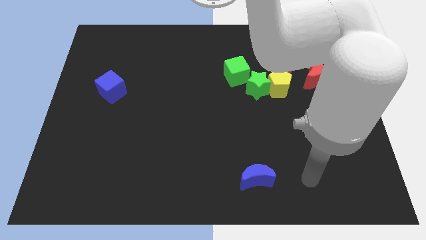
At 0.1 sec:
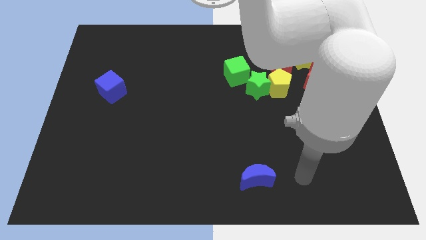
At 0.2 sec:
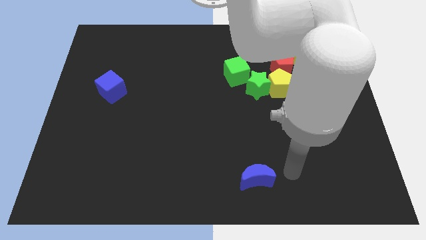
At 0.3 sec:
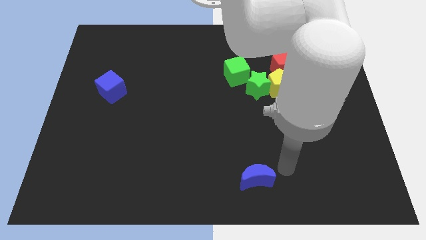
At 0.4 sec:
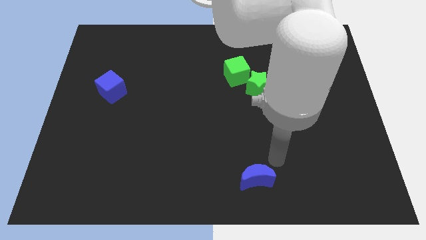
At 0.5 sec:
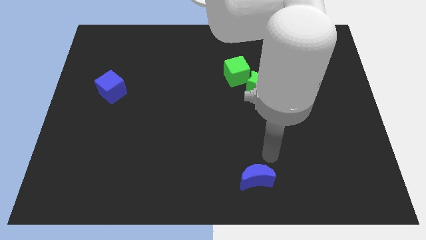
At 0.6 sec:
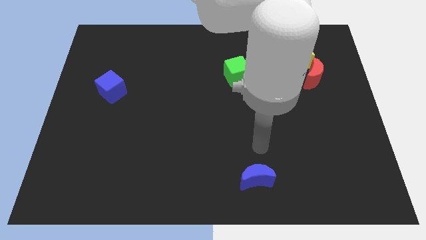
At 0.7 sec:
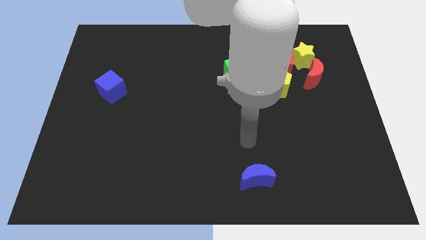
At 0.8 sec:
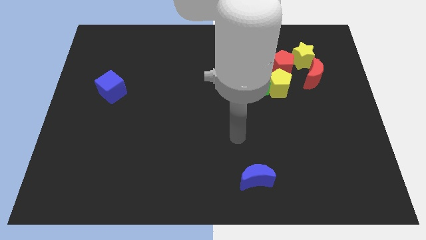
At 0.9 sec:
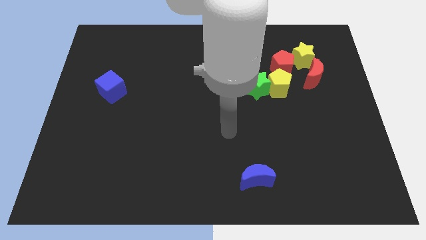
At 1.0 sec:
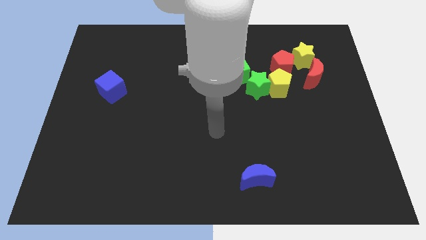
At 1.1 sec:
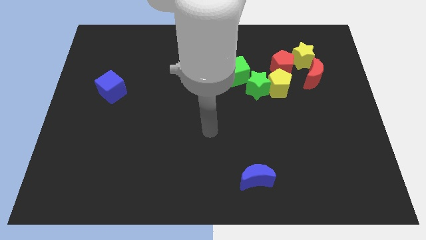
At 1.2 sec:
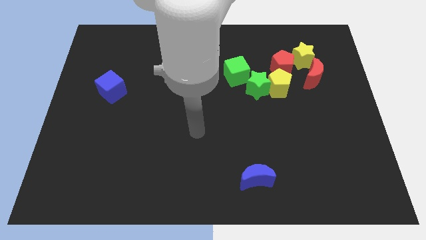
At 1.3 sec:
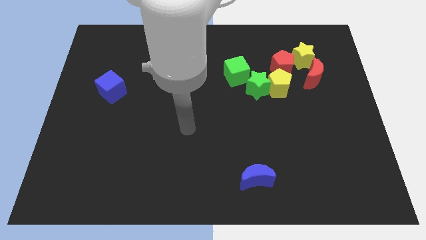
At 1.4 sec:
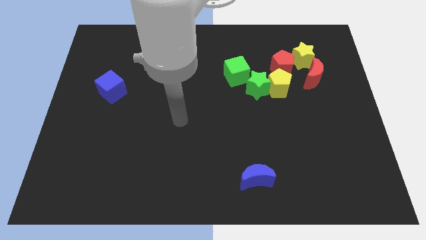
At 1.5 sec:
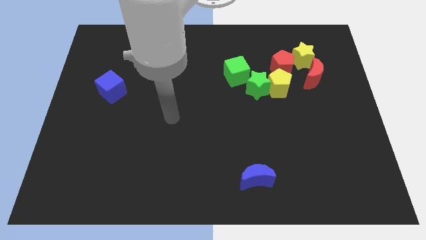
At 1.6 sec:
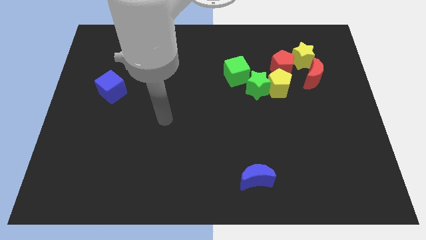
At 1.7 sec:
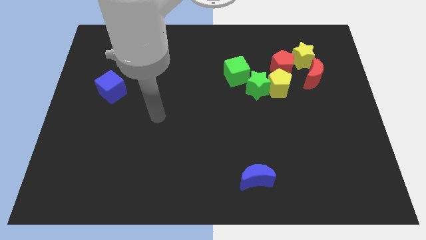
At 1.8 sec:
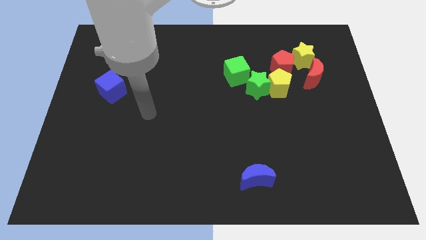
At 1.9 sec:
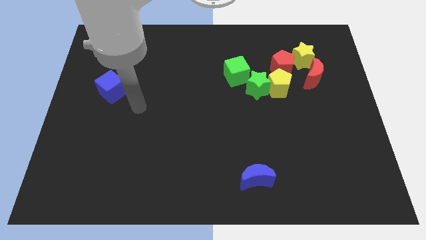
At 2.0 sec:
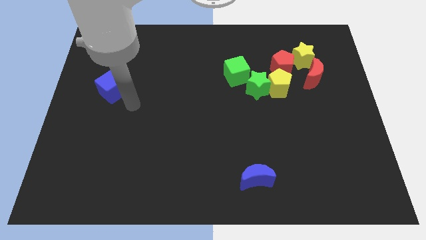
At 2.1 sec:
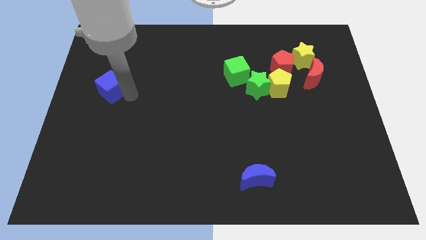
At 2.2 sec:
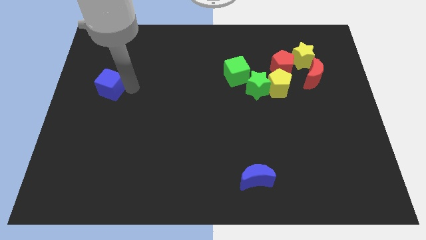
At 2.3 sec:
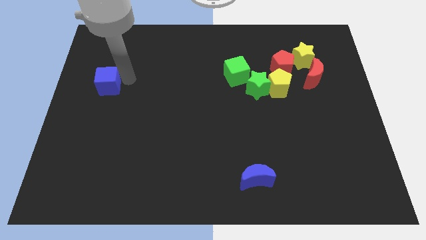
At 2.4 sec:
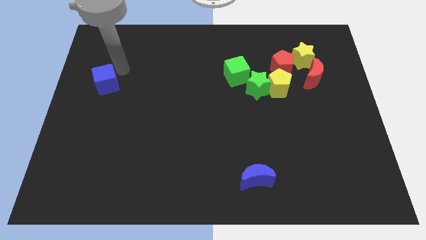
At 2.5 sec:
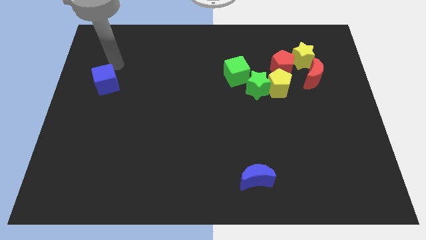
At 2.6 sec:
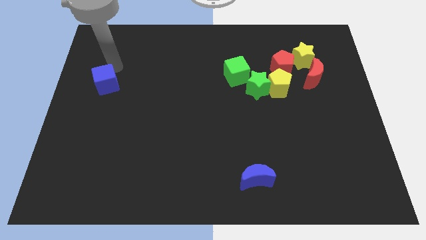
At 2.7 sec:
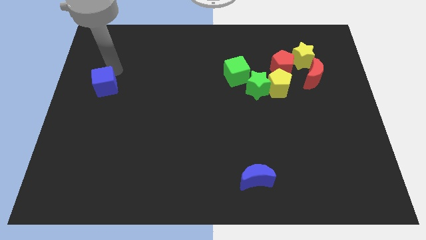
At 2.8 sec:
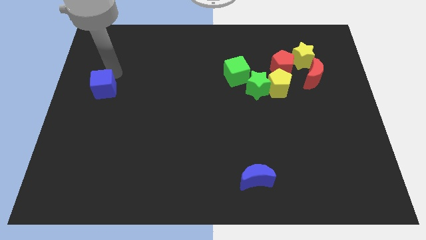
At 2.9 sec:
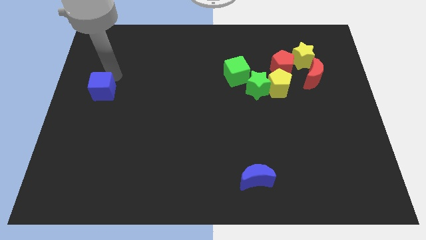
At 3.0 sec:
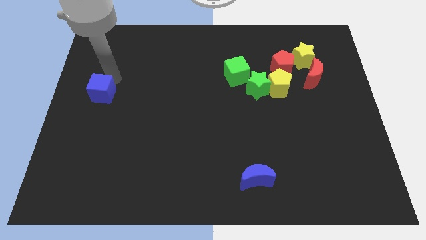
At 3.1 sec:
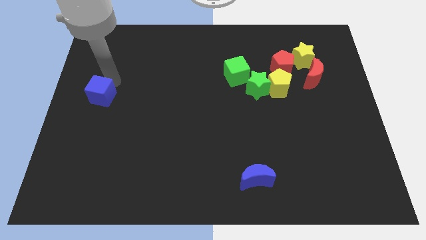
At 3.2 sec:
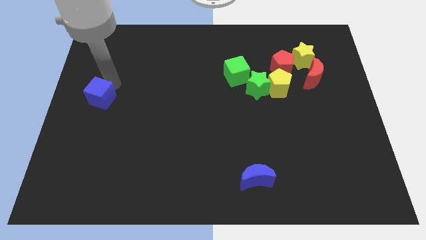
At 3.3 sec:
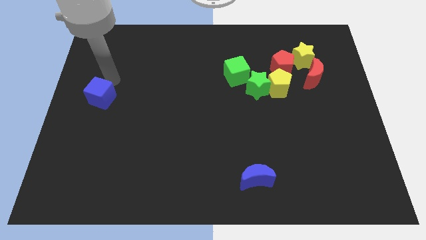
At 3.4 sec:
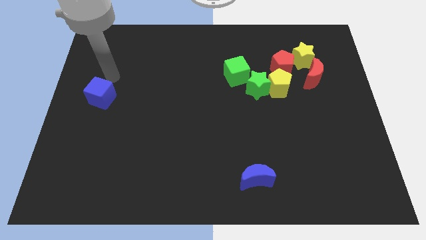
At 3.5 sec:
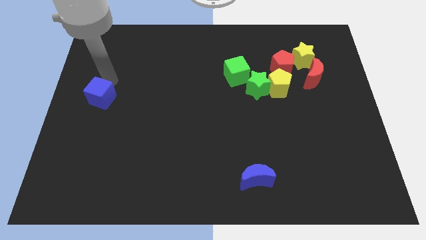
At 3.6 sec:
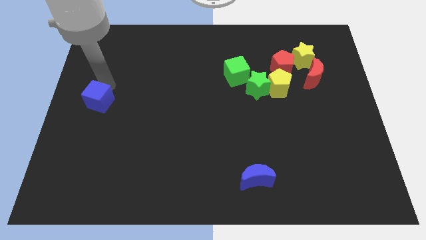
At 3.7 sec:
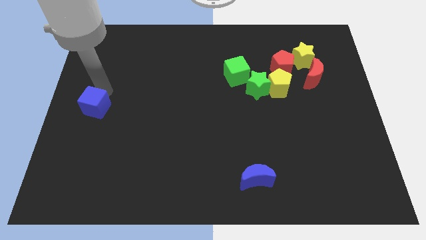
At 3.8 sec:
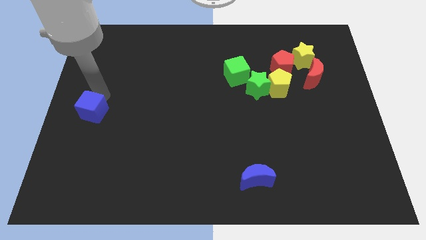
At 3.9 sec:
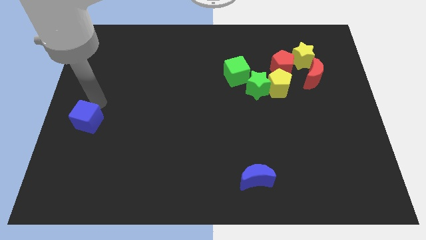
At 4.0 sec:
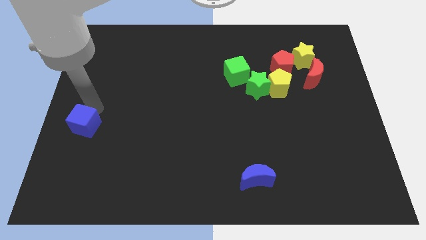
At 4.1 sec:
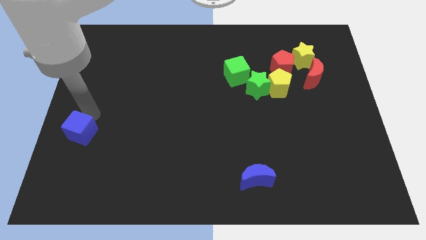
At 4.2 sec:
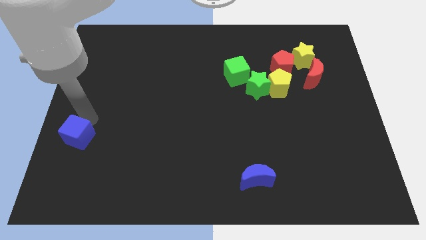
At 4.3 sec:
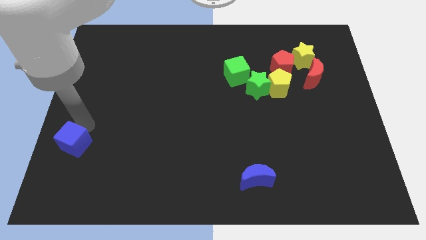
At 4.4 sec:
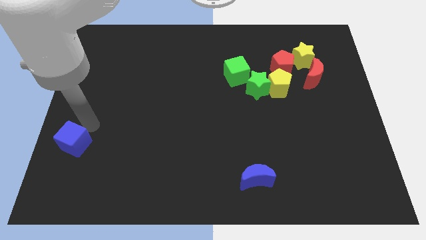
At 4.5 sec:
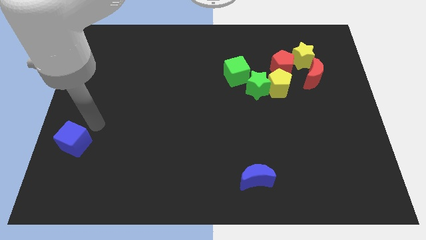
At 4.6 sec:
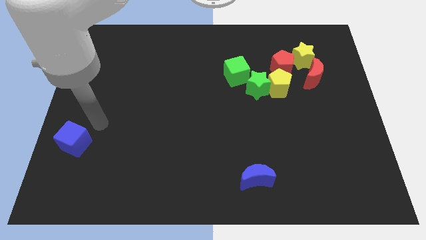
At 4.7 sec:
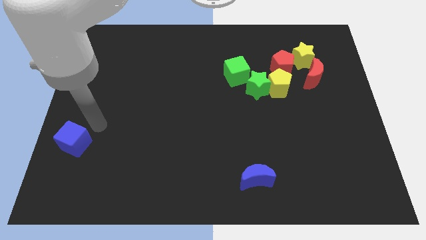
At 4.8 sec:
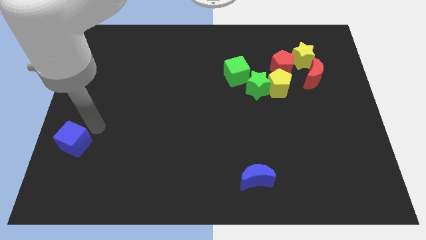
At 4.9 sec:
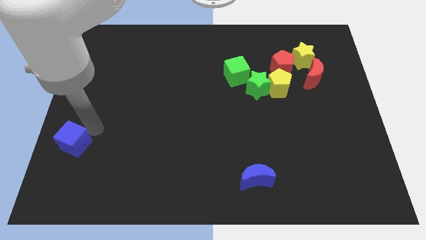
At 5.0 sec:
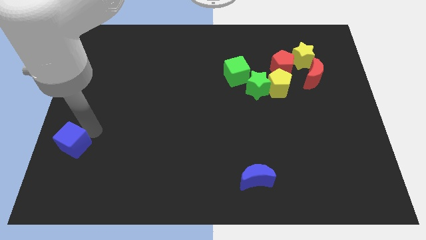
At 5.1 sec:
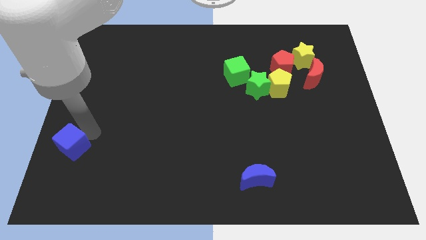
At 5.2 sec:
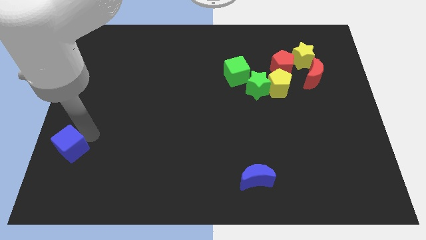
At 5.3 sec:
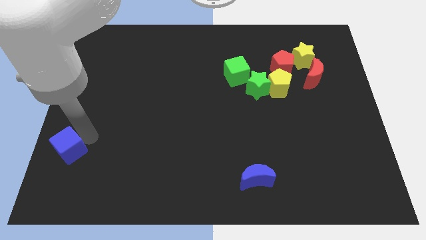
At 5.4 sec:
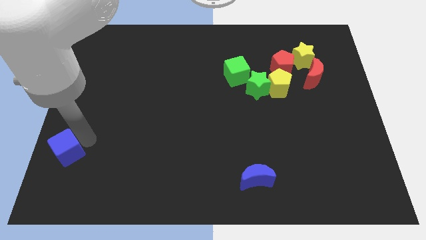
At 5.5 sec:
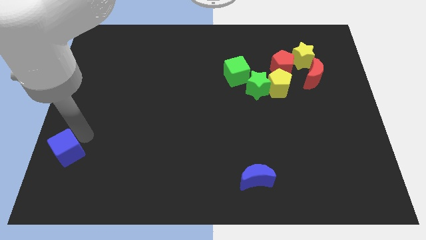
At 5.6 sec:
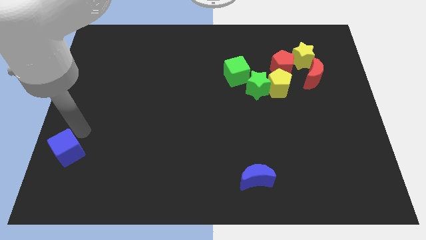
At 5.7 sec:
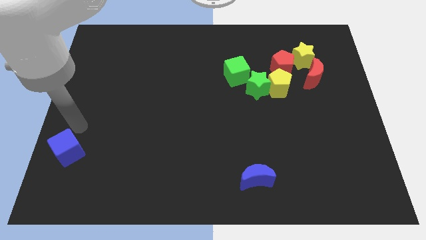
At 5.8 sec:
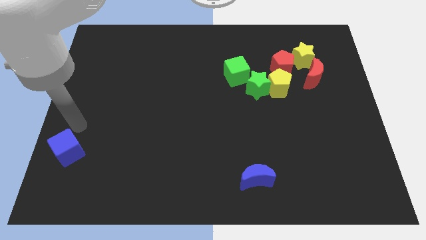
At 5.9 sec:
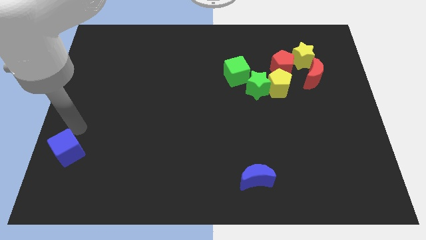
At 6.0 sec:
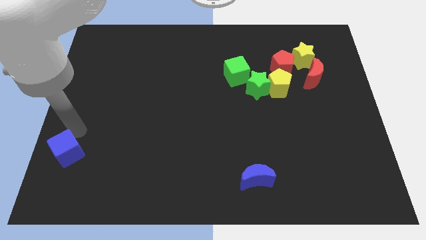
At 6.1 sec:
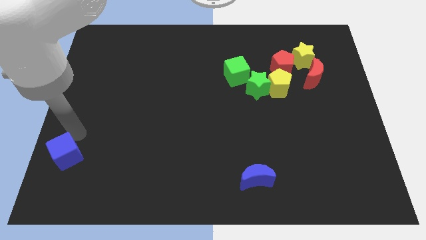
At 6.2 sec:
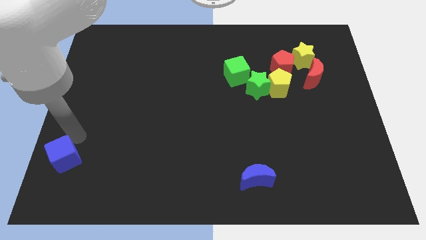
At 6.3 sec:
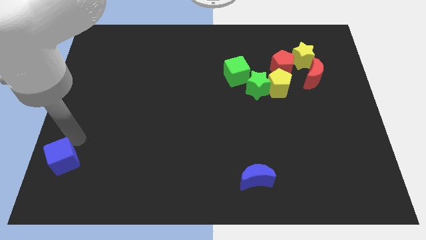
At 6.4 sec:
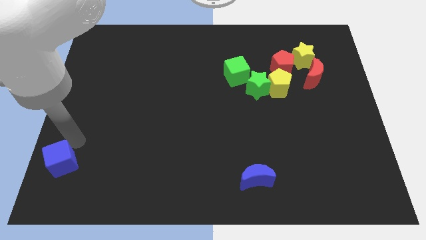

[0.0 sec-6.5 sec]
move the blue cube to the bottom left

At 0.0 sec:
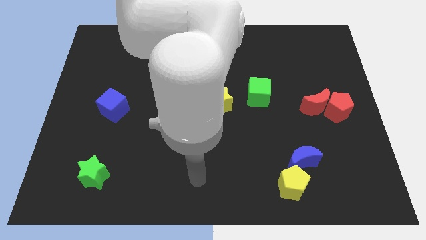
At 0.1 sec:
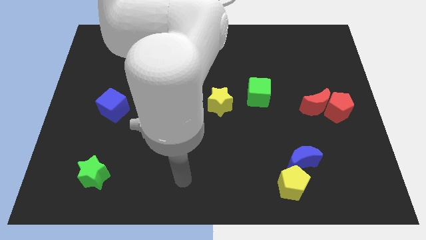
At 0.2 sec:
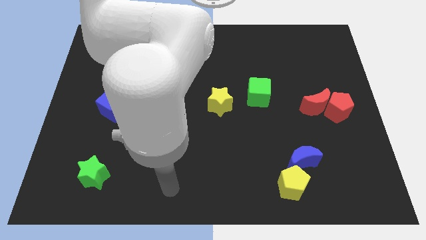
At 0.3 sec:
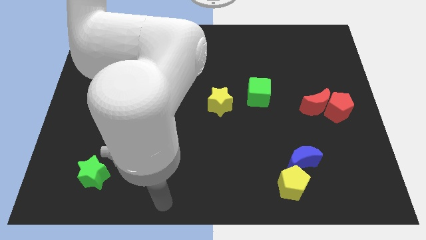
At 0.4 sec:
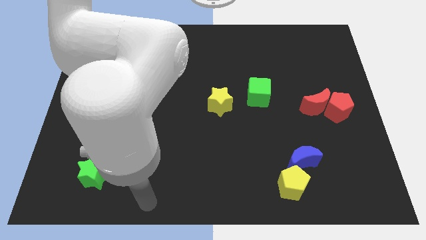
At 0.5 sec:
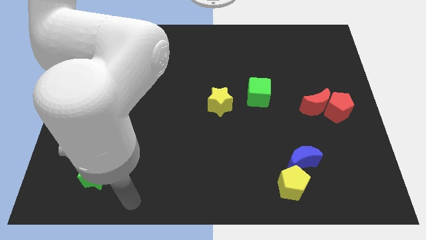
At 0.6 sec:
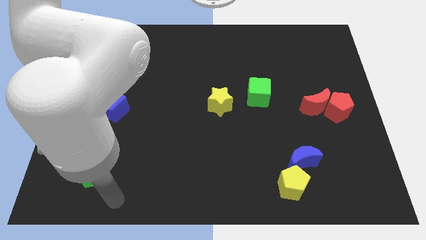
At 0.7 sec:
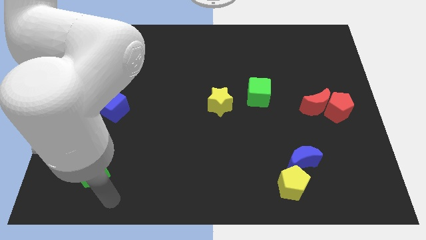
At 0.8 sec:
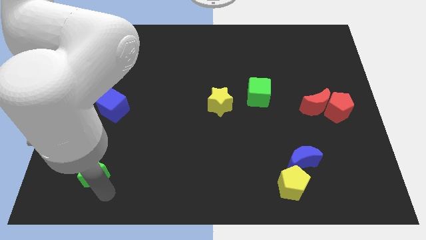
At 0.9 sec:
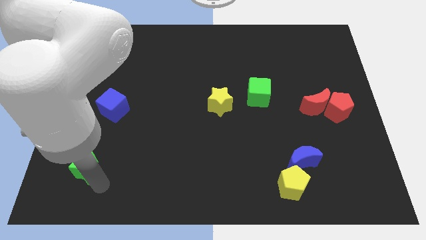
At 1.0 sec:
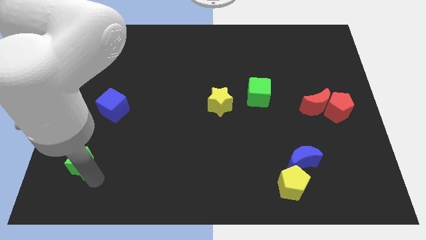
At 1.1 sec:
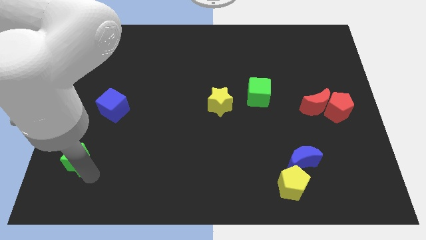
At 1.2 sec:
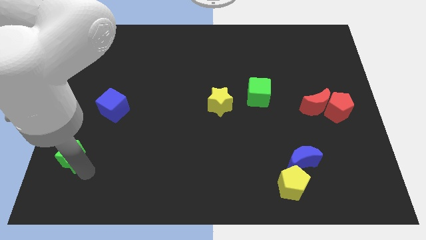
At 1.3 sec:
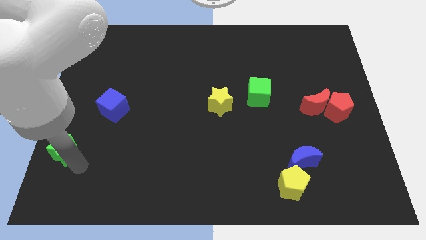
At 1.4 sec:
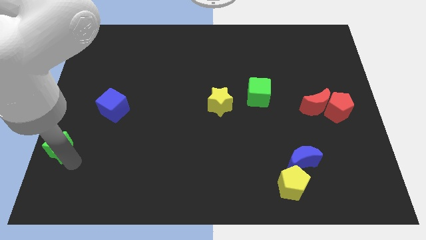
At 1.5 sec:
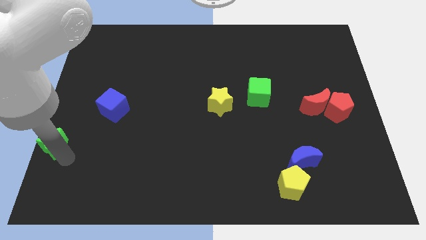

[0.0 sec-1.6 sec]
slide the green star to the left side

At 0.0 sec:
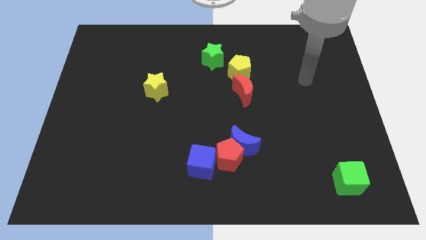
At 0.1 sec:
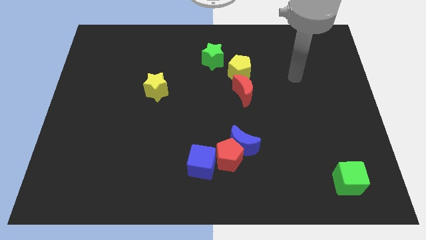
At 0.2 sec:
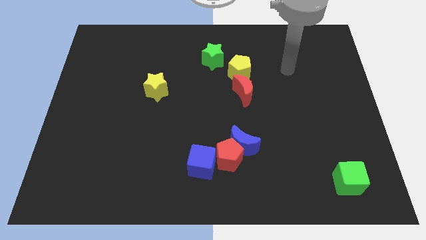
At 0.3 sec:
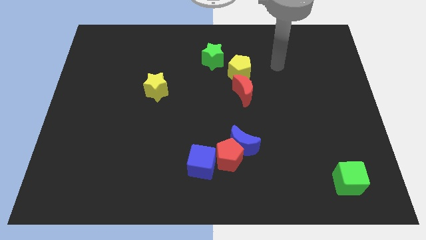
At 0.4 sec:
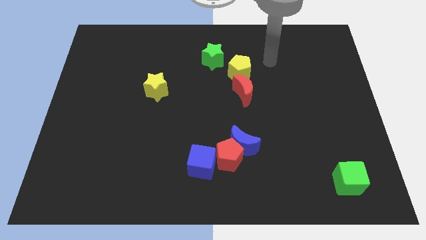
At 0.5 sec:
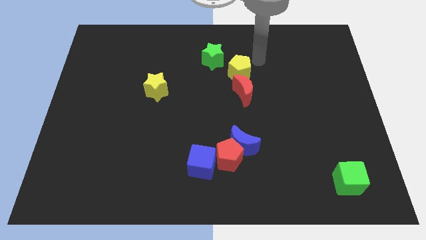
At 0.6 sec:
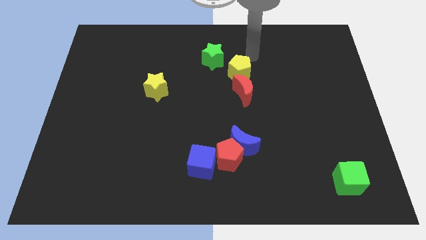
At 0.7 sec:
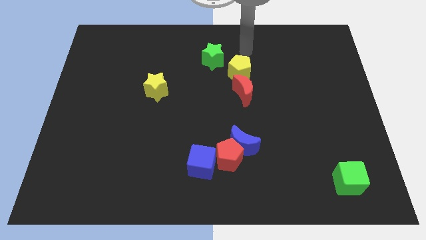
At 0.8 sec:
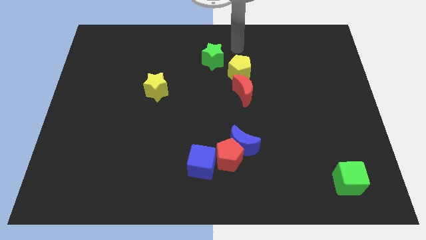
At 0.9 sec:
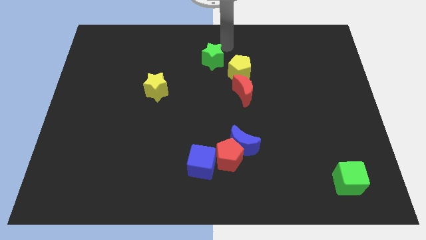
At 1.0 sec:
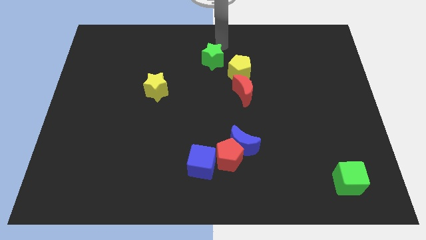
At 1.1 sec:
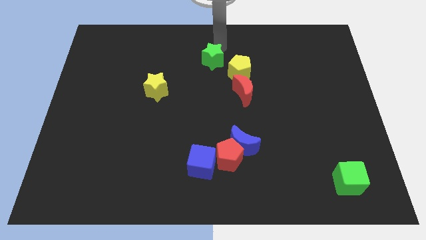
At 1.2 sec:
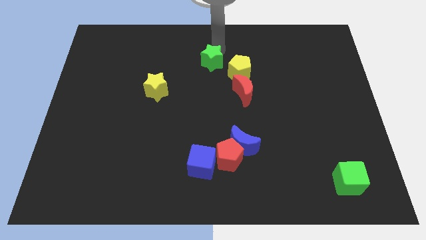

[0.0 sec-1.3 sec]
slide the green star to the middle
